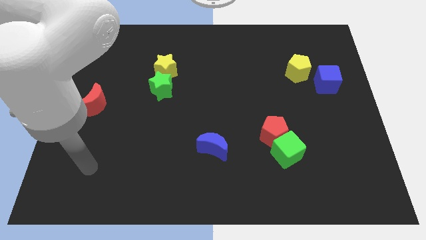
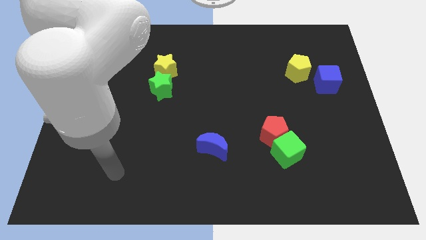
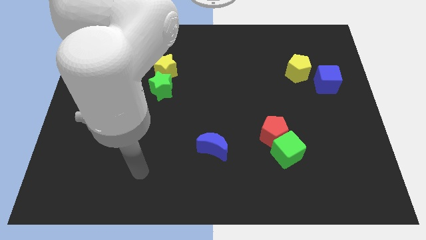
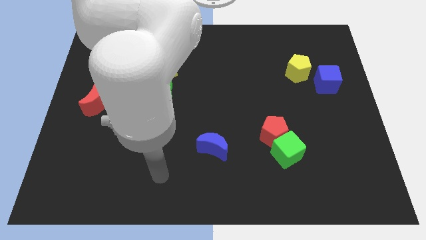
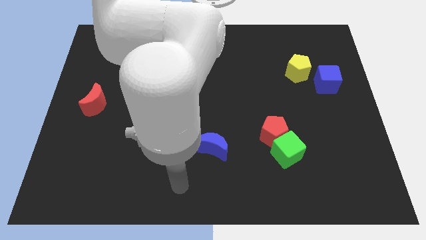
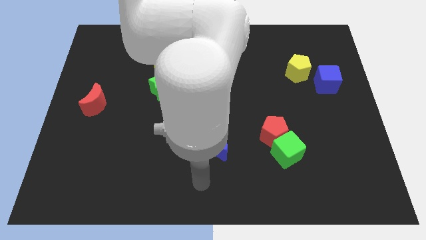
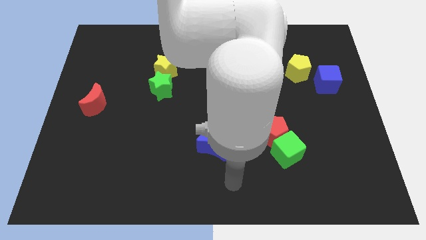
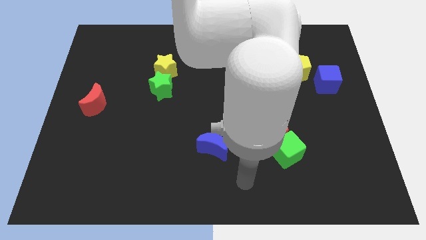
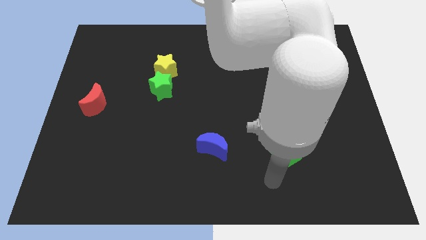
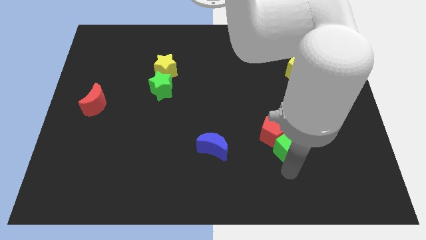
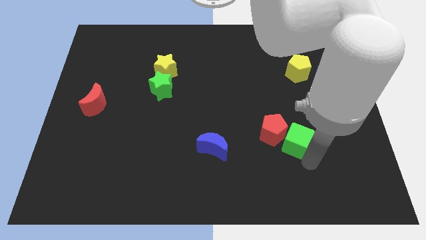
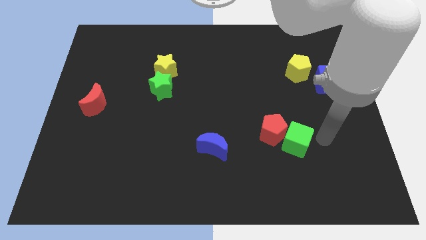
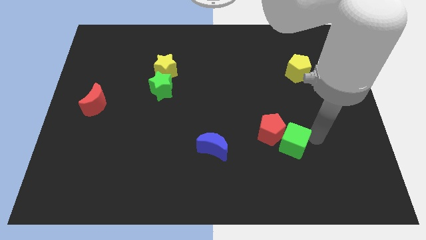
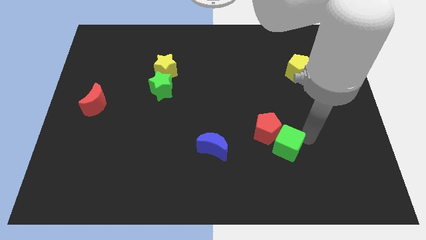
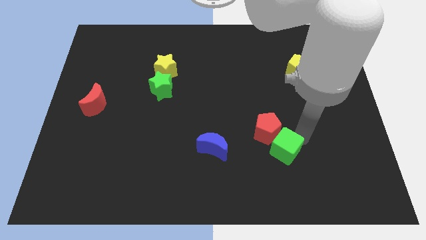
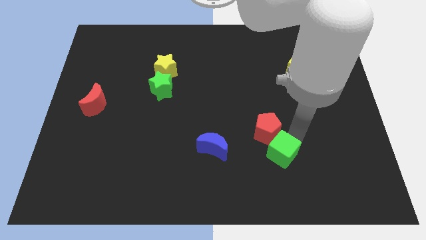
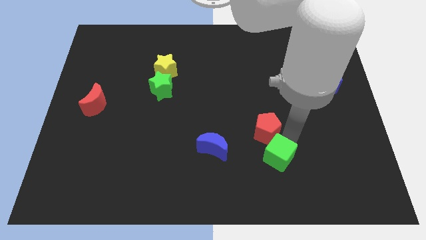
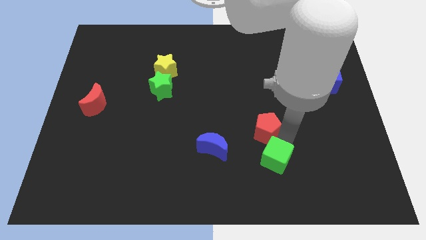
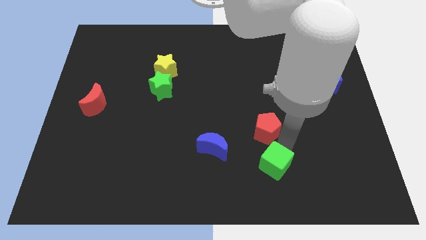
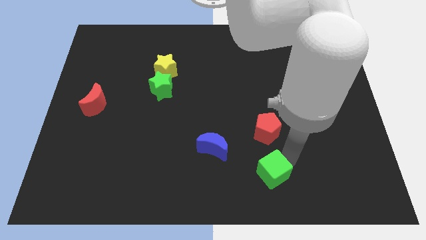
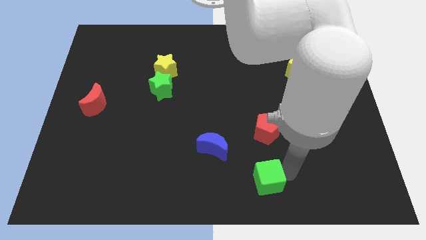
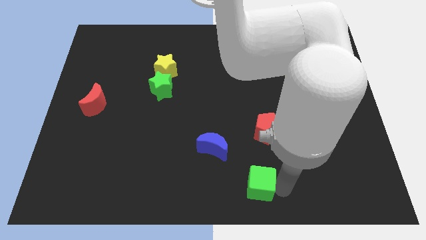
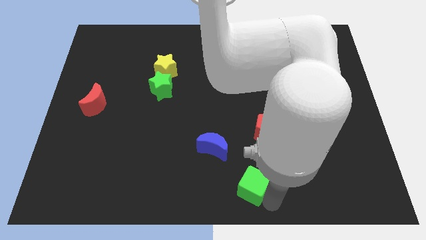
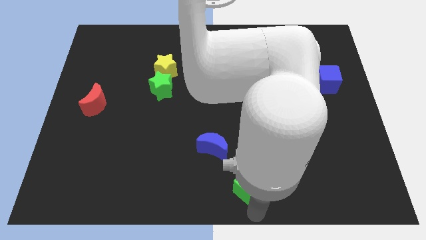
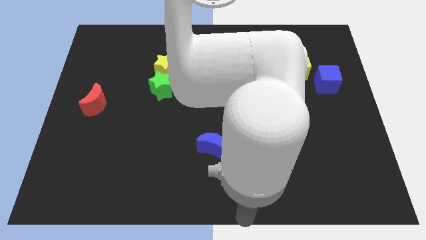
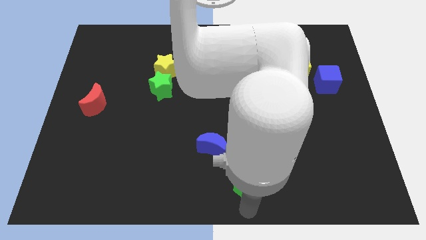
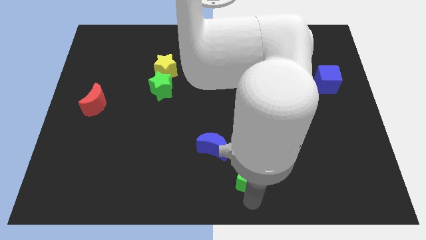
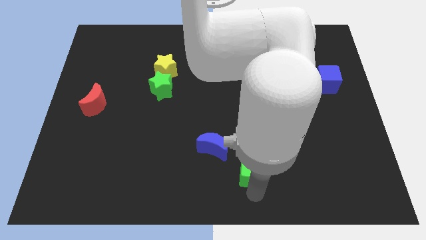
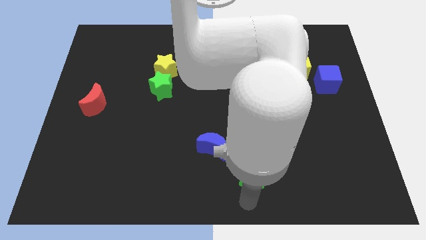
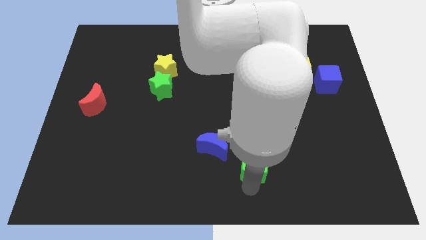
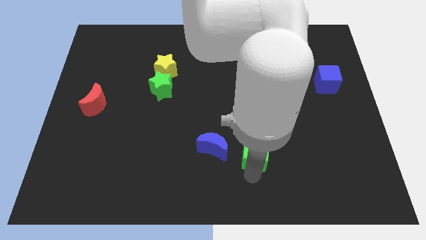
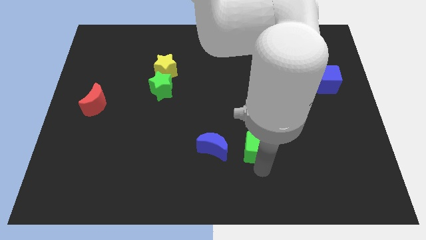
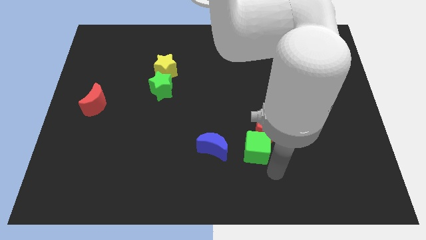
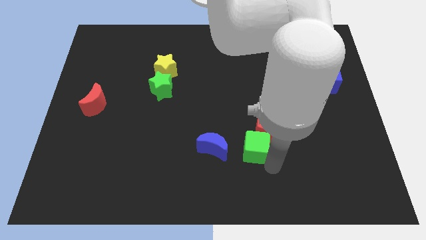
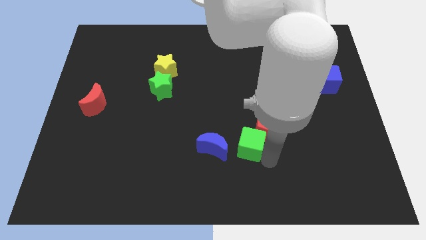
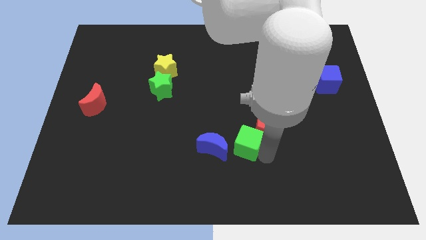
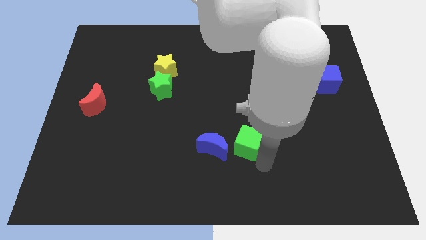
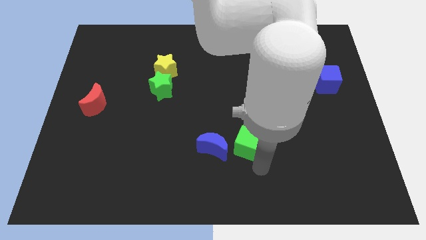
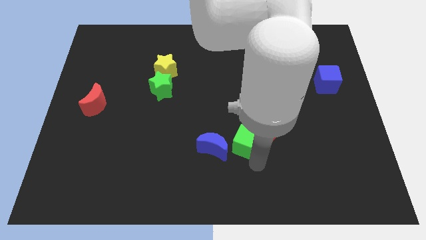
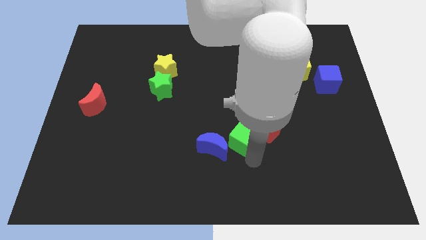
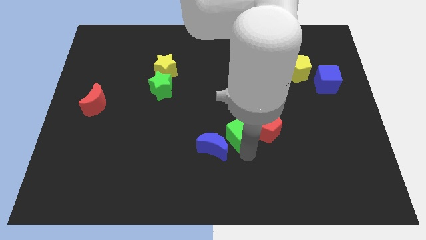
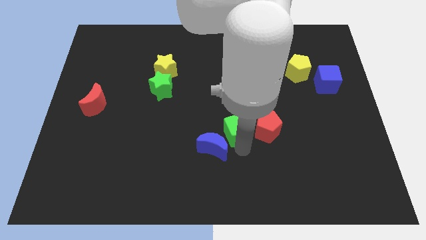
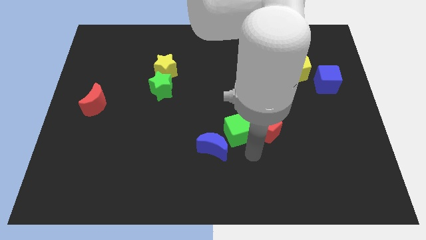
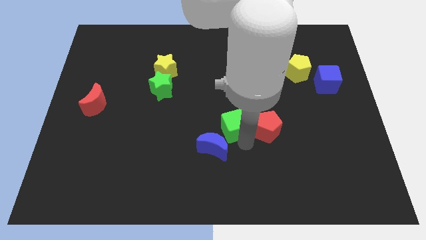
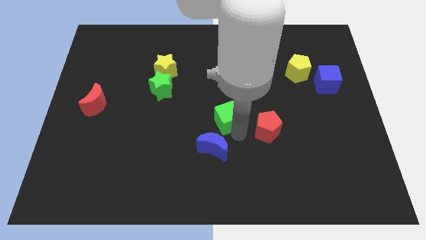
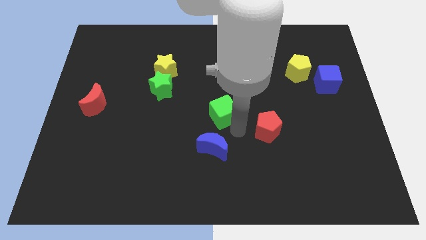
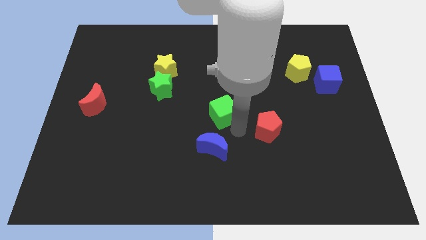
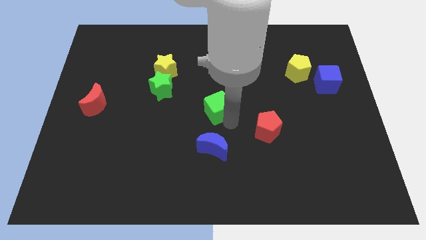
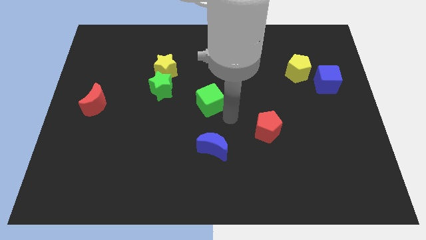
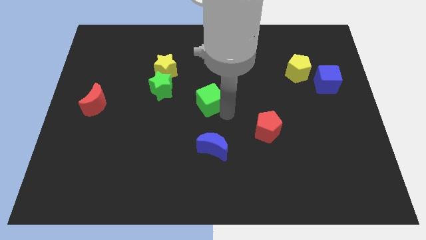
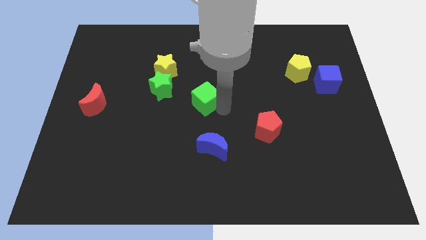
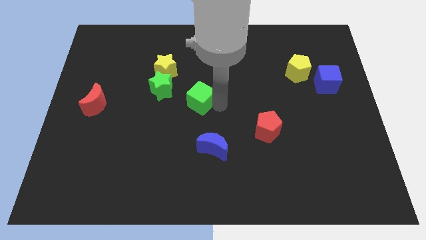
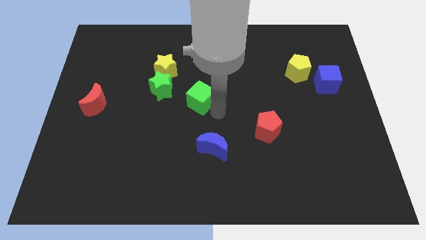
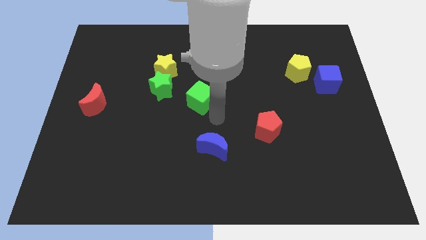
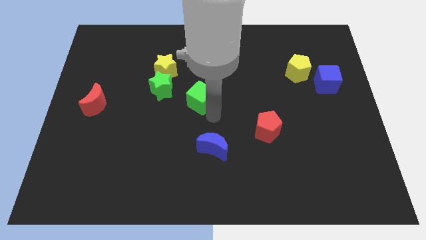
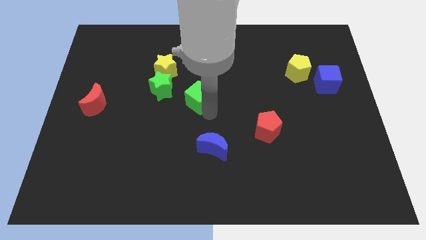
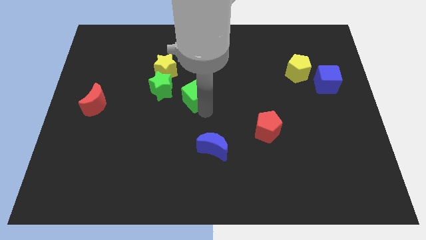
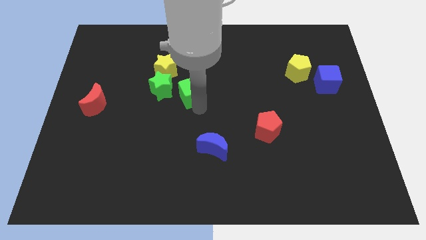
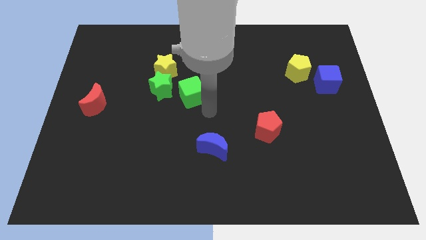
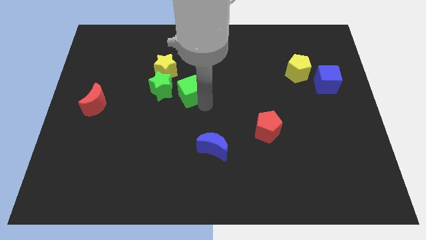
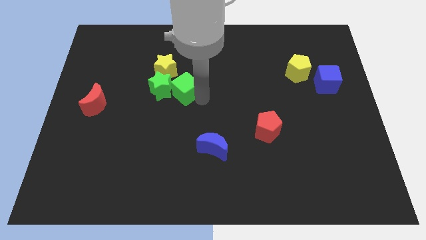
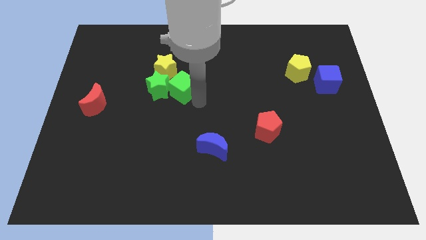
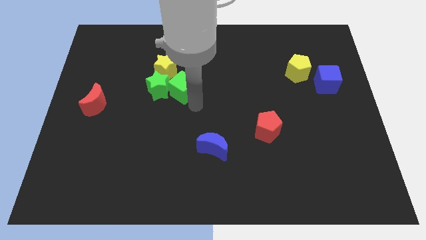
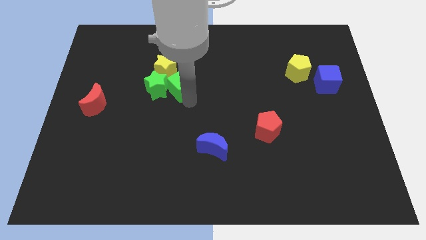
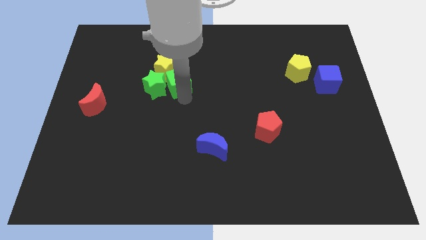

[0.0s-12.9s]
move the green cube next to the yellow star
